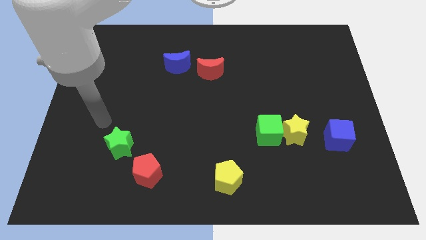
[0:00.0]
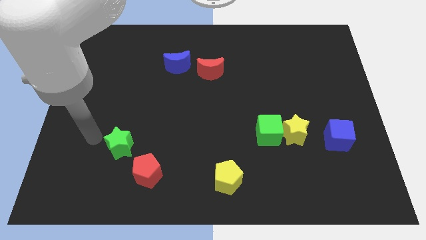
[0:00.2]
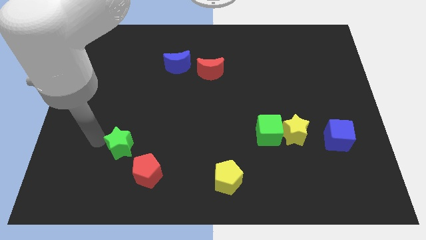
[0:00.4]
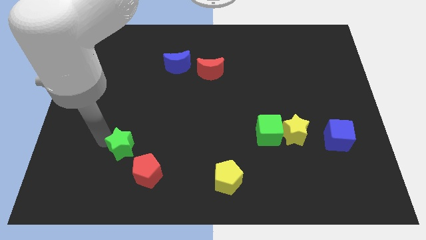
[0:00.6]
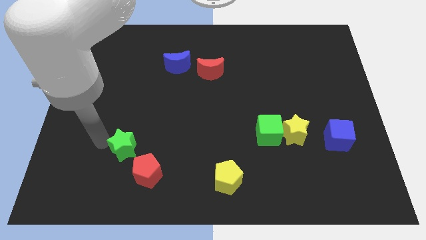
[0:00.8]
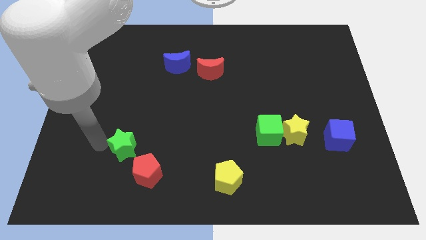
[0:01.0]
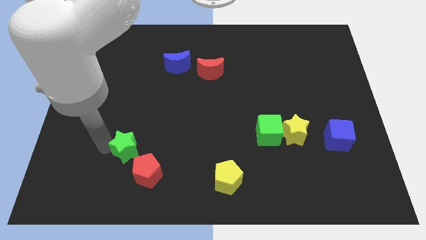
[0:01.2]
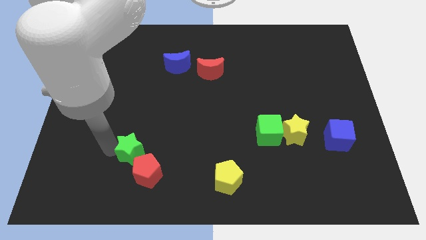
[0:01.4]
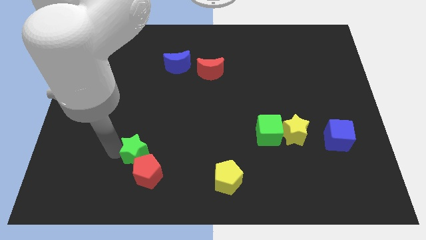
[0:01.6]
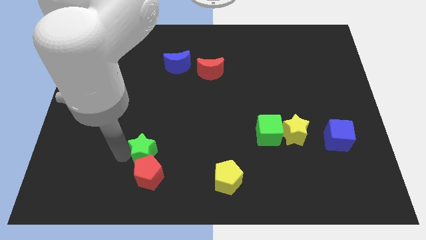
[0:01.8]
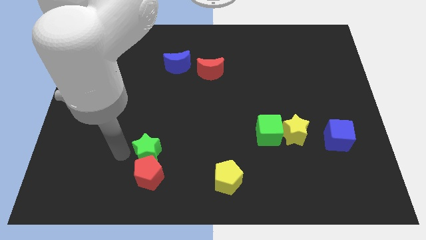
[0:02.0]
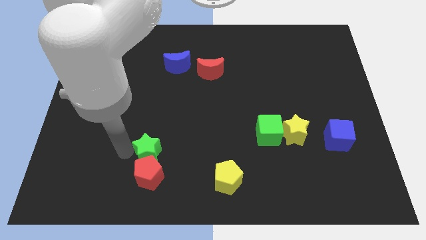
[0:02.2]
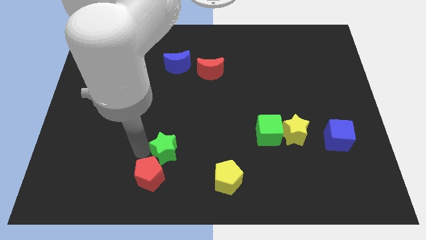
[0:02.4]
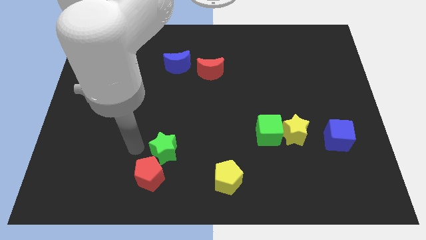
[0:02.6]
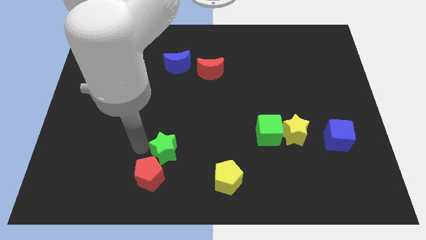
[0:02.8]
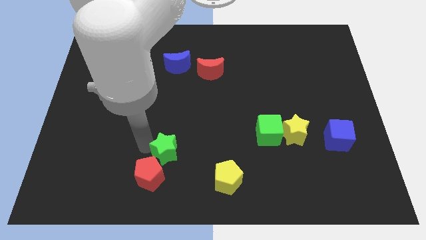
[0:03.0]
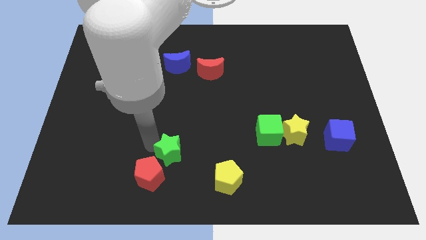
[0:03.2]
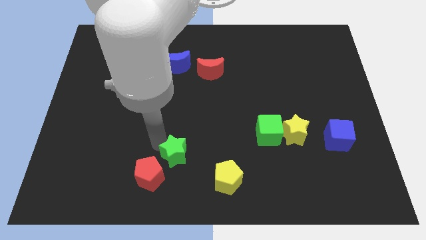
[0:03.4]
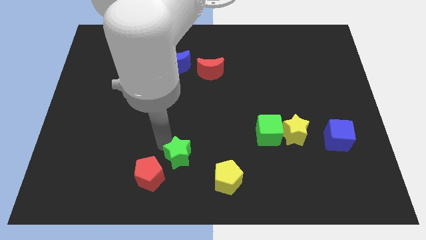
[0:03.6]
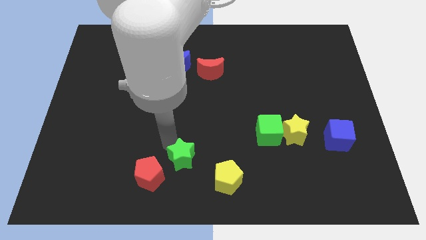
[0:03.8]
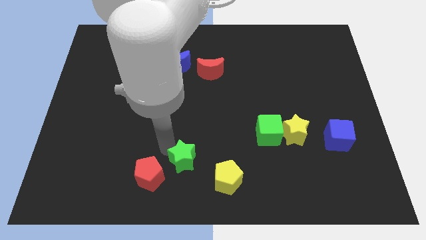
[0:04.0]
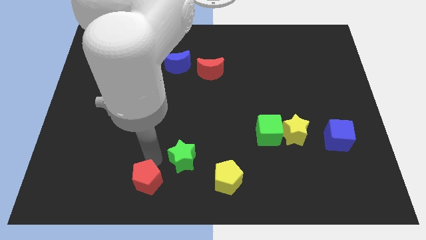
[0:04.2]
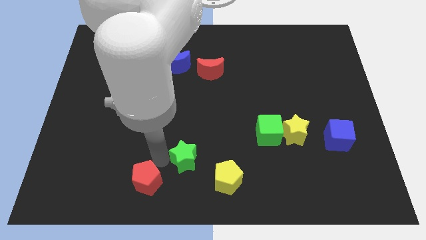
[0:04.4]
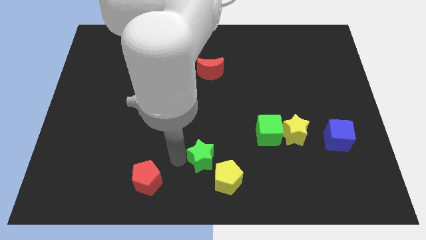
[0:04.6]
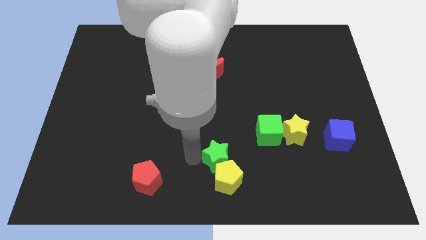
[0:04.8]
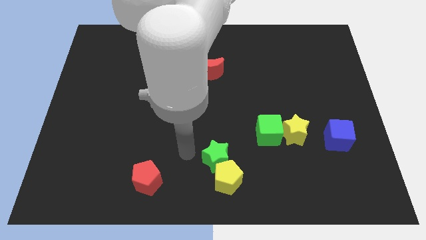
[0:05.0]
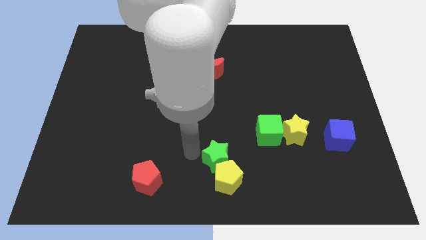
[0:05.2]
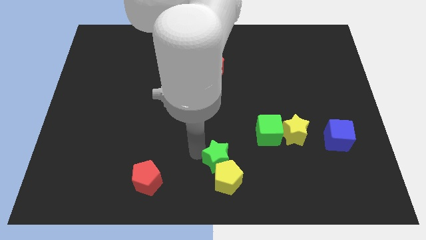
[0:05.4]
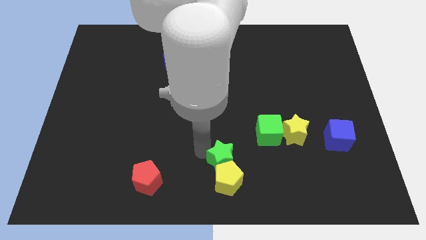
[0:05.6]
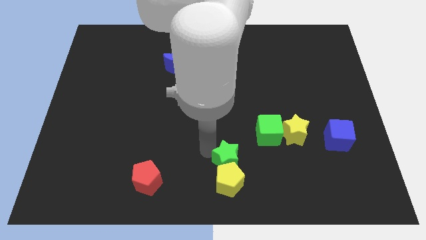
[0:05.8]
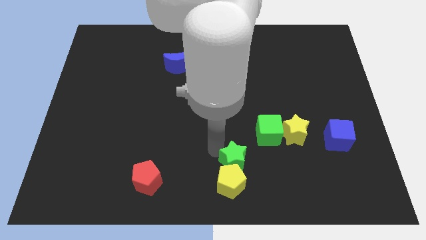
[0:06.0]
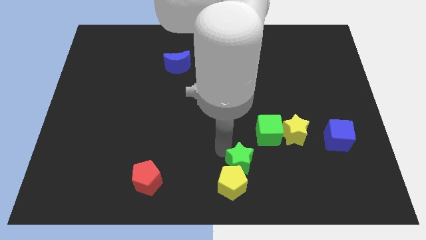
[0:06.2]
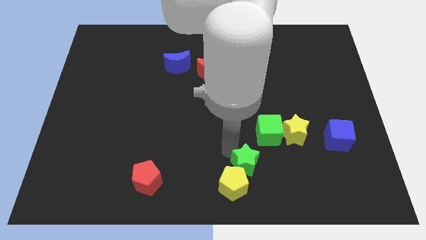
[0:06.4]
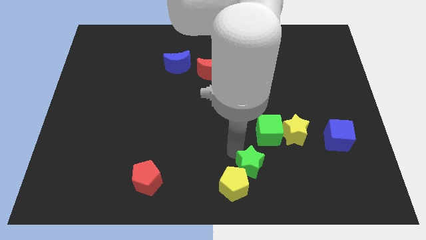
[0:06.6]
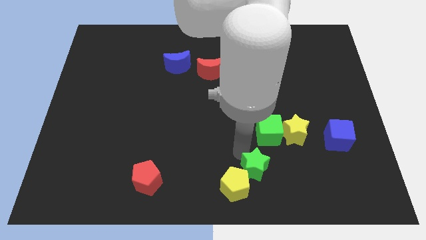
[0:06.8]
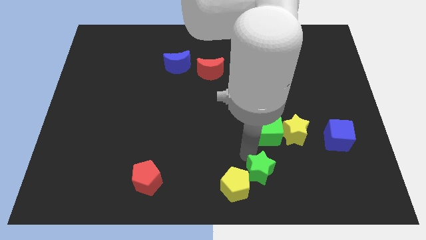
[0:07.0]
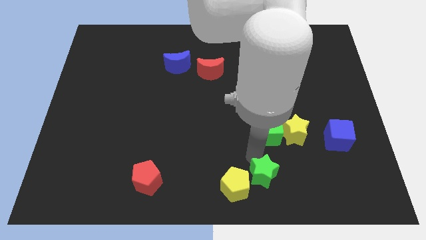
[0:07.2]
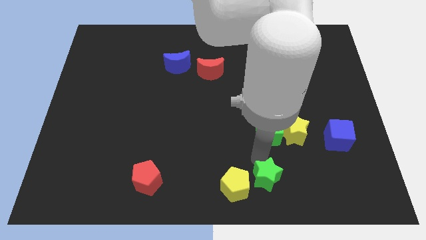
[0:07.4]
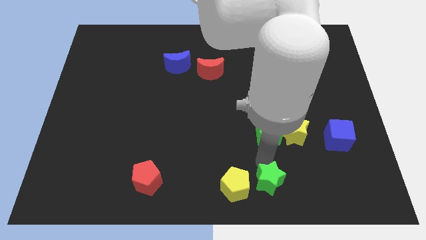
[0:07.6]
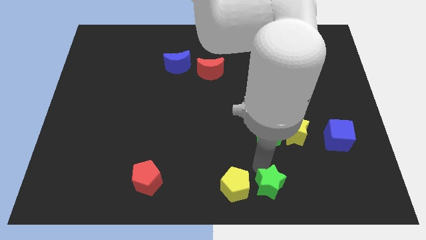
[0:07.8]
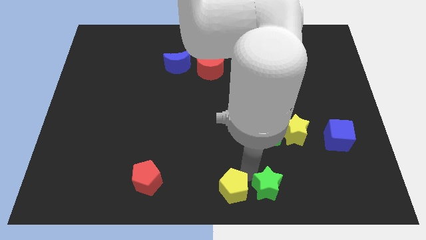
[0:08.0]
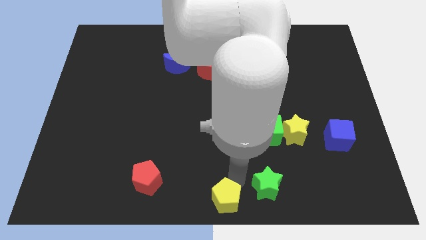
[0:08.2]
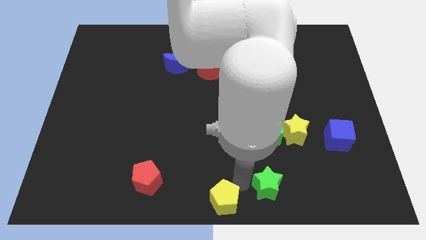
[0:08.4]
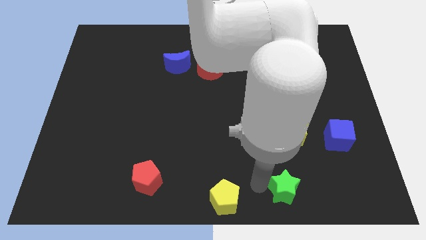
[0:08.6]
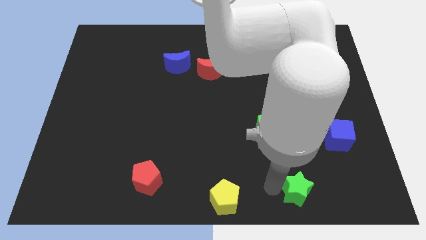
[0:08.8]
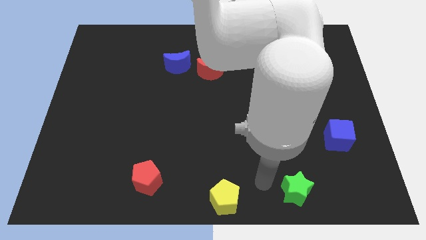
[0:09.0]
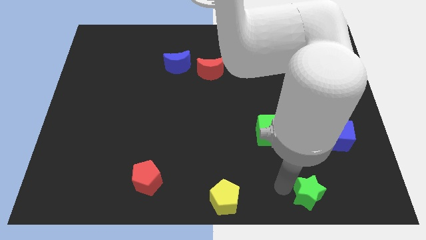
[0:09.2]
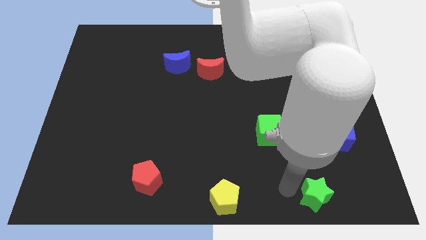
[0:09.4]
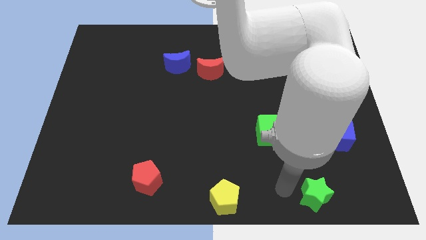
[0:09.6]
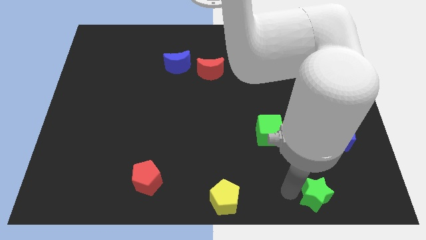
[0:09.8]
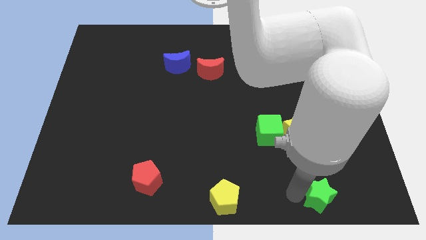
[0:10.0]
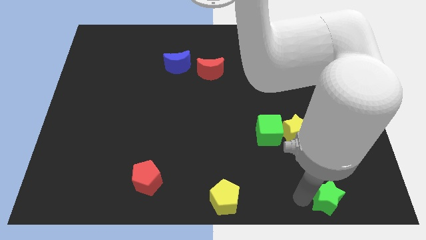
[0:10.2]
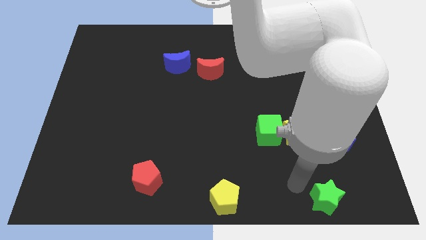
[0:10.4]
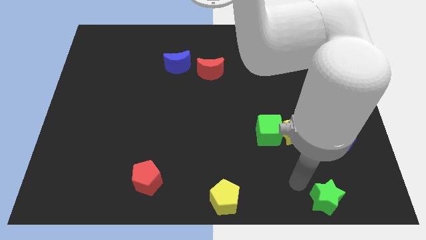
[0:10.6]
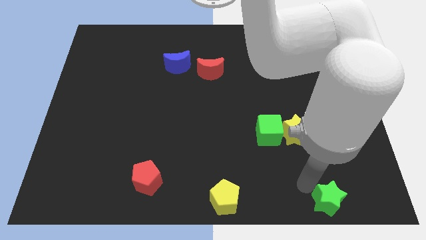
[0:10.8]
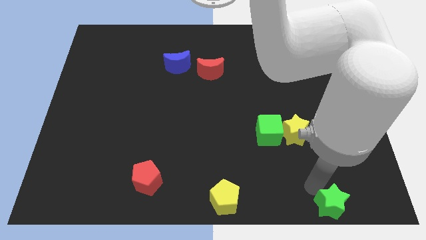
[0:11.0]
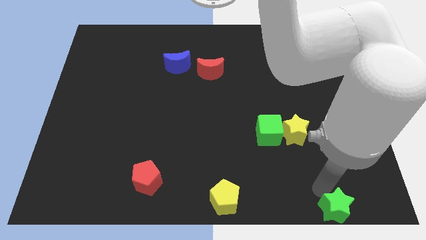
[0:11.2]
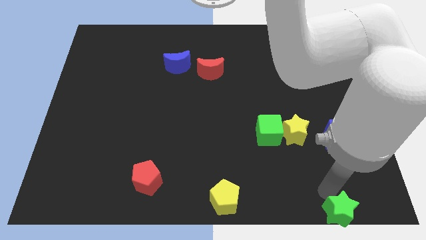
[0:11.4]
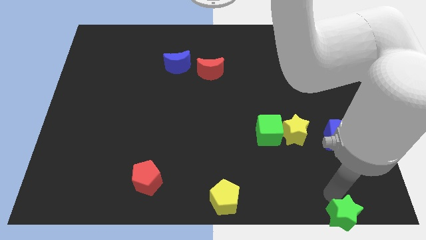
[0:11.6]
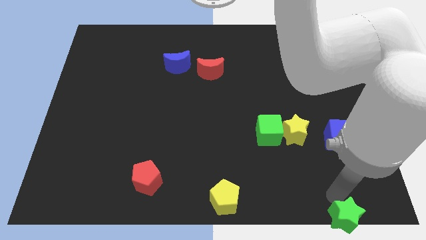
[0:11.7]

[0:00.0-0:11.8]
push the green star to the bottom right of the board

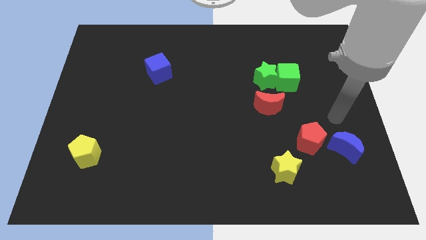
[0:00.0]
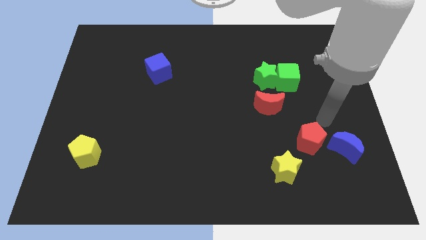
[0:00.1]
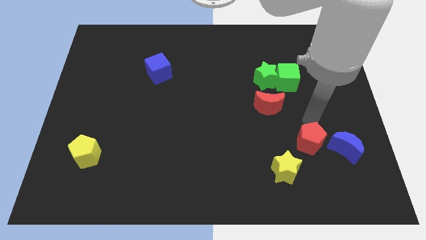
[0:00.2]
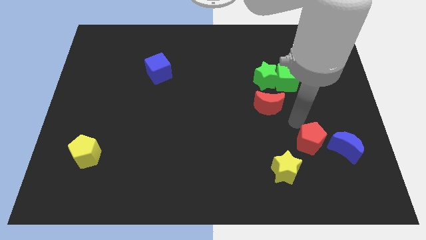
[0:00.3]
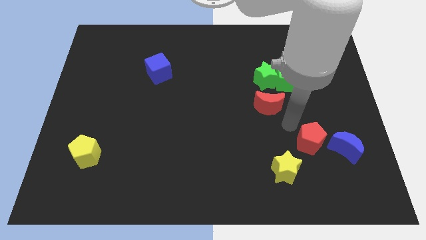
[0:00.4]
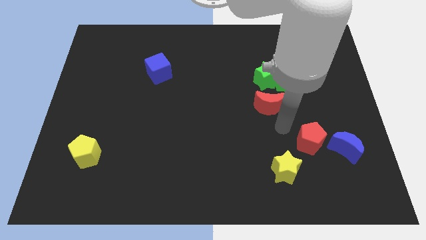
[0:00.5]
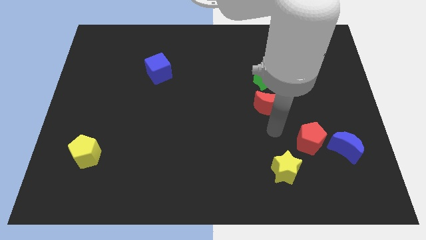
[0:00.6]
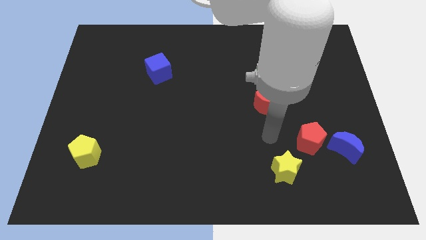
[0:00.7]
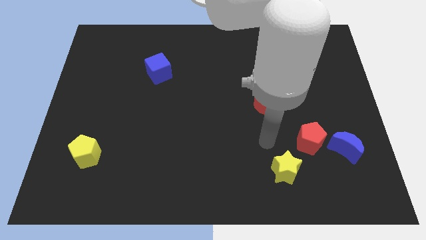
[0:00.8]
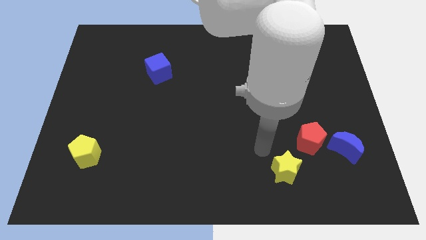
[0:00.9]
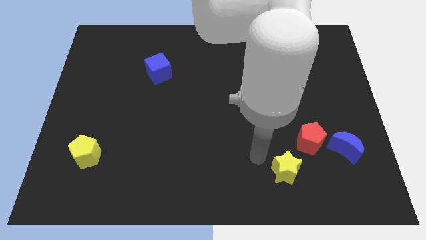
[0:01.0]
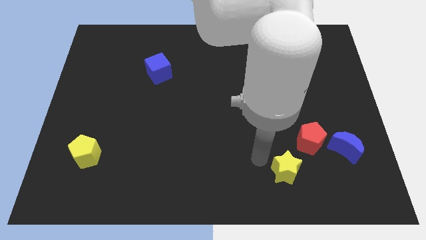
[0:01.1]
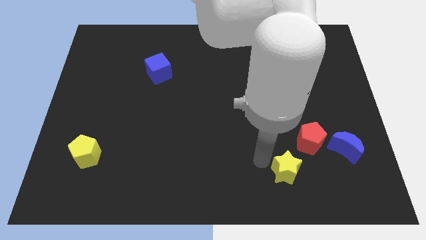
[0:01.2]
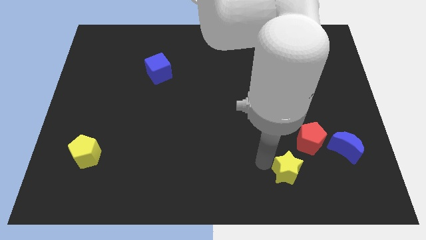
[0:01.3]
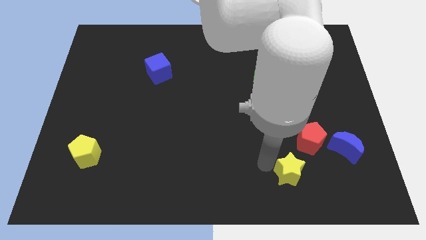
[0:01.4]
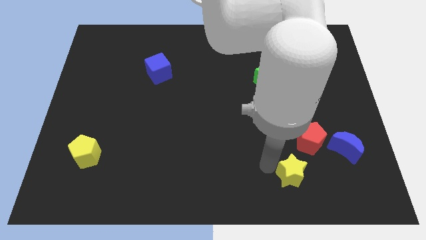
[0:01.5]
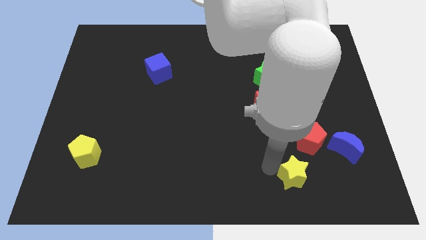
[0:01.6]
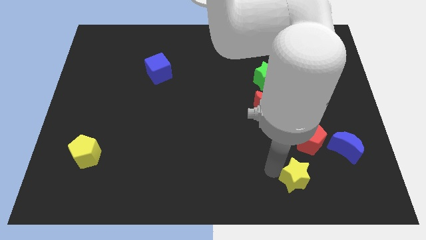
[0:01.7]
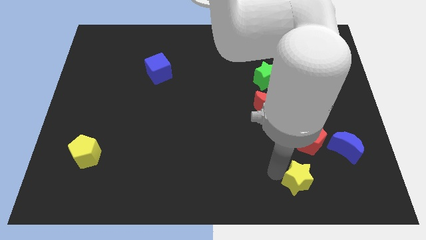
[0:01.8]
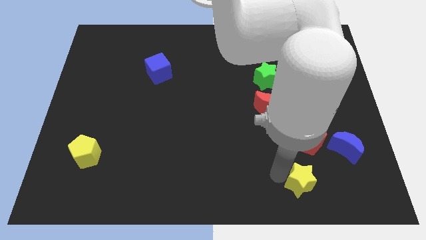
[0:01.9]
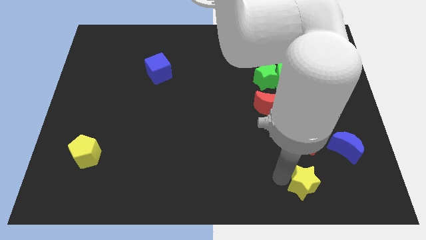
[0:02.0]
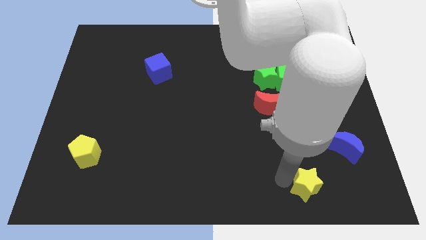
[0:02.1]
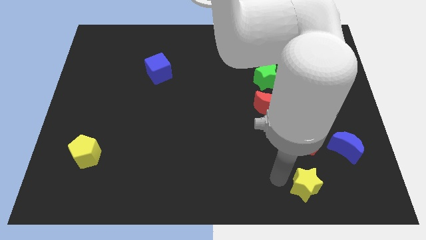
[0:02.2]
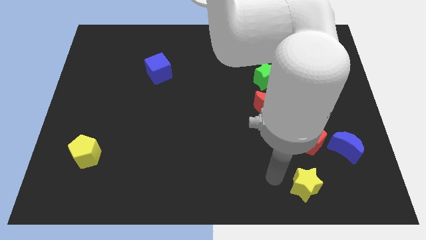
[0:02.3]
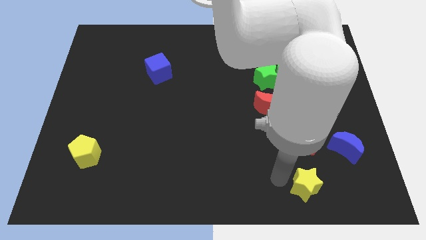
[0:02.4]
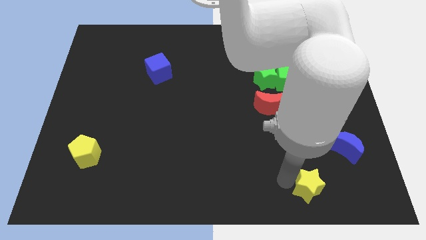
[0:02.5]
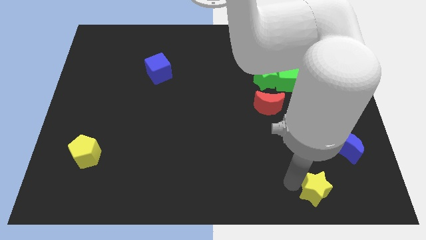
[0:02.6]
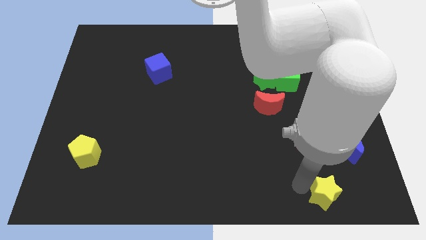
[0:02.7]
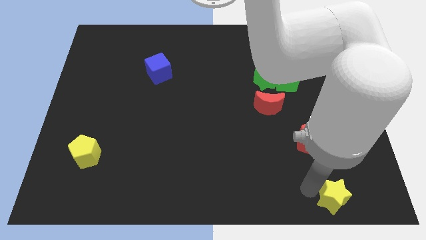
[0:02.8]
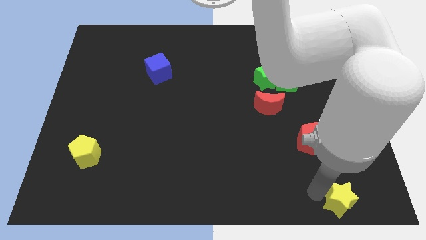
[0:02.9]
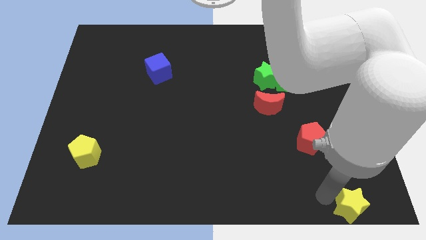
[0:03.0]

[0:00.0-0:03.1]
put the yellow star to the bottom right
